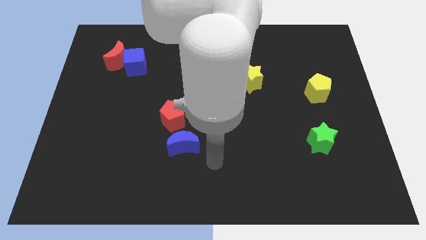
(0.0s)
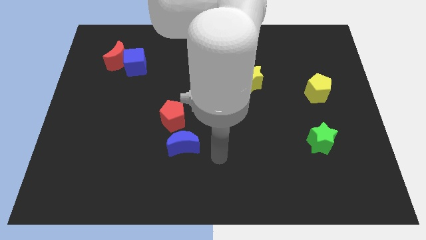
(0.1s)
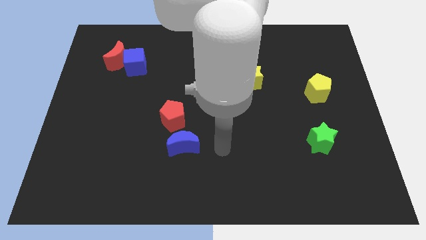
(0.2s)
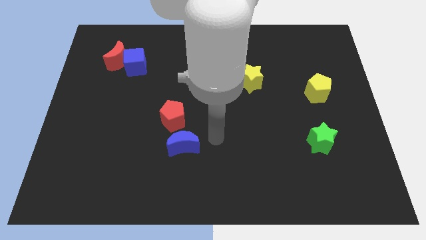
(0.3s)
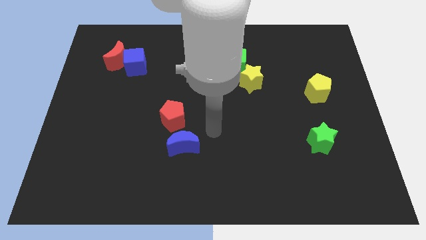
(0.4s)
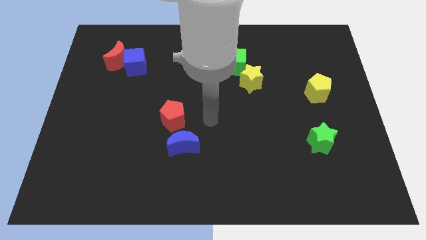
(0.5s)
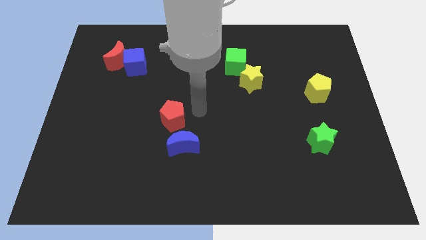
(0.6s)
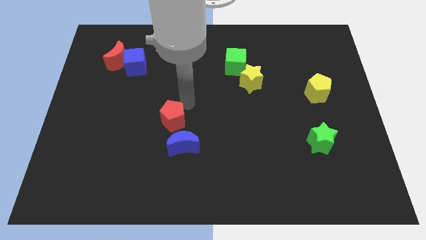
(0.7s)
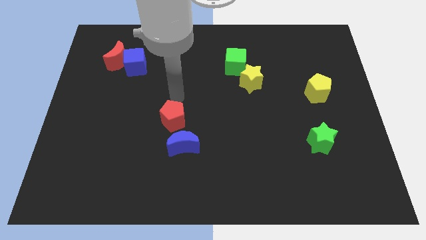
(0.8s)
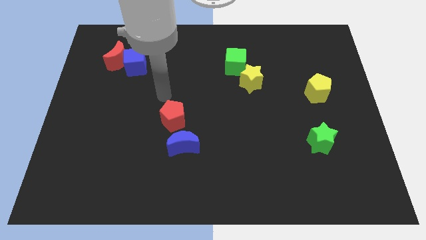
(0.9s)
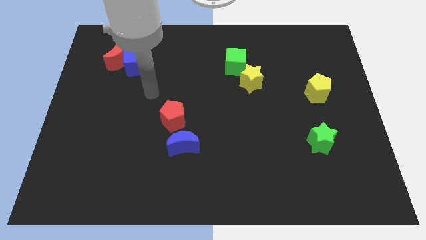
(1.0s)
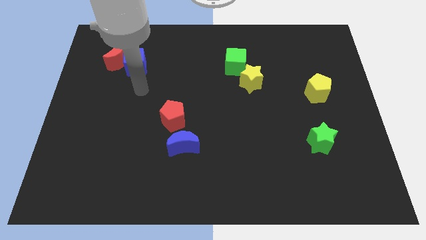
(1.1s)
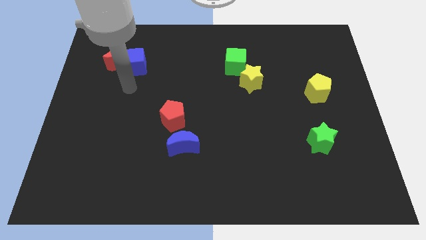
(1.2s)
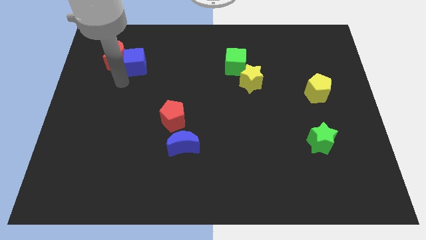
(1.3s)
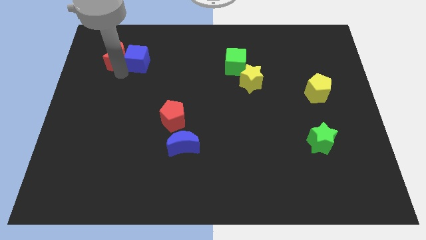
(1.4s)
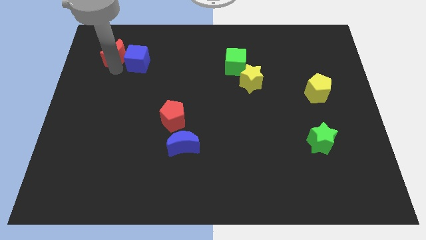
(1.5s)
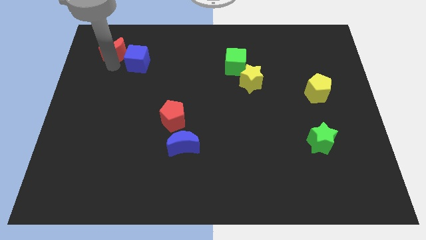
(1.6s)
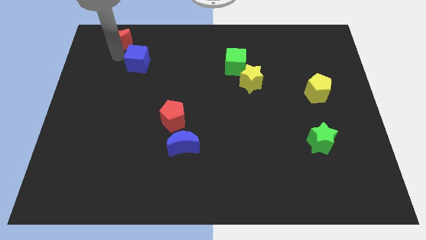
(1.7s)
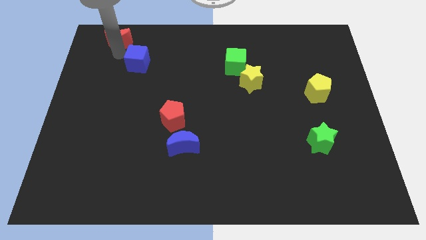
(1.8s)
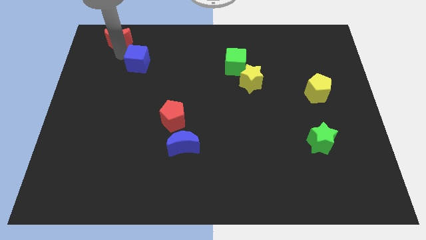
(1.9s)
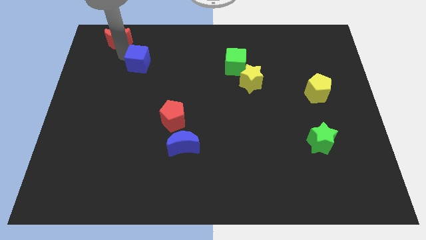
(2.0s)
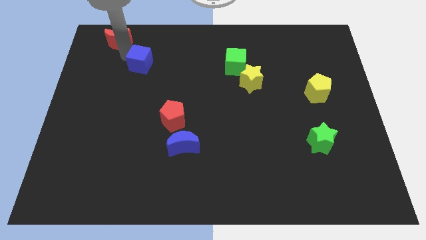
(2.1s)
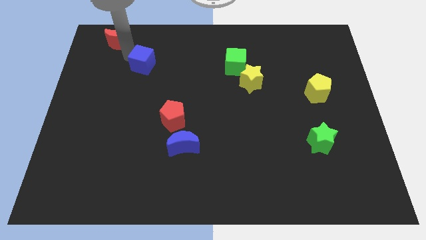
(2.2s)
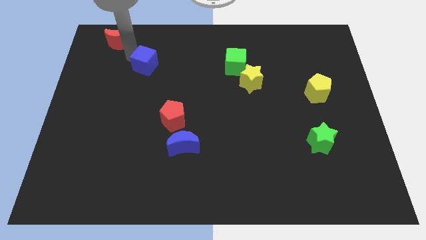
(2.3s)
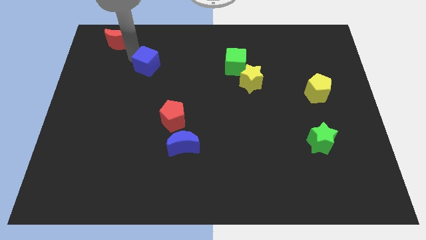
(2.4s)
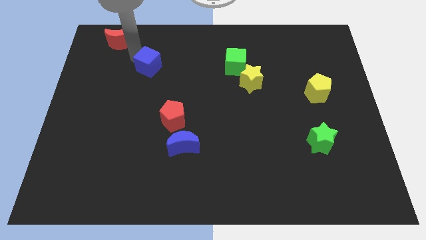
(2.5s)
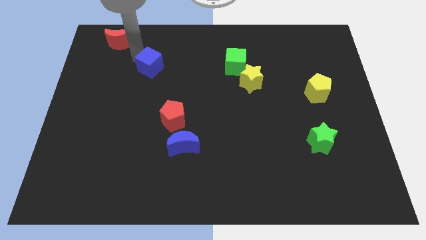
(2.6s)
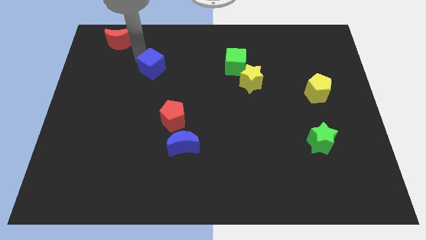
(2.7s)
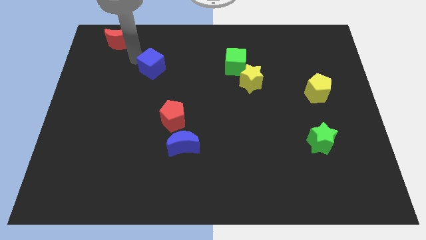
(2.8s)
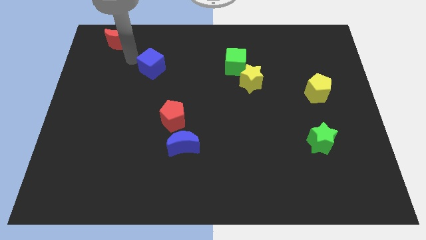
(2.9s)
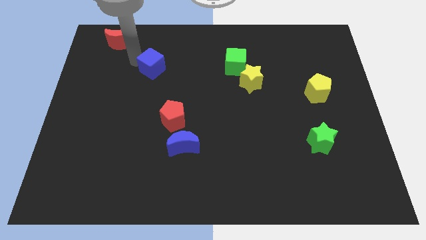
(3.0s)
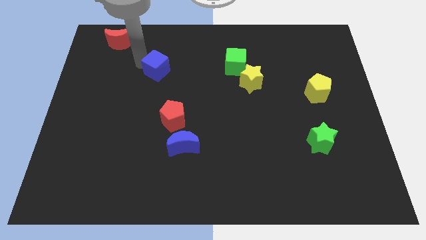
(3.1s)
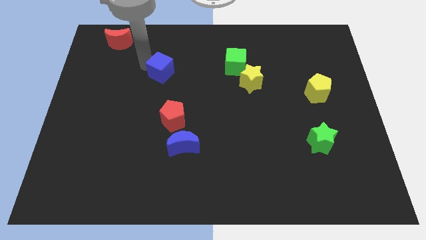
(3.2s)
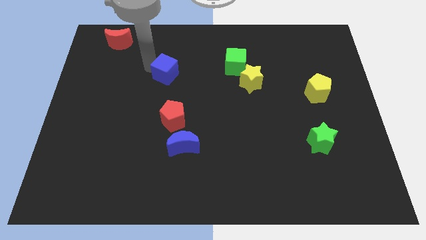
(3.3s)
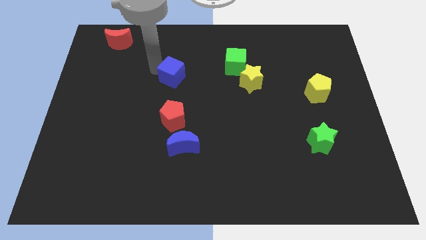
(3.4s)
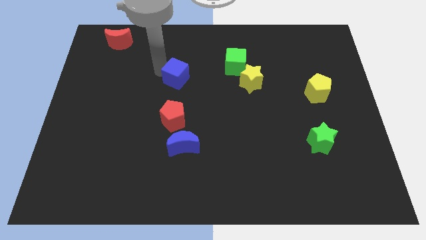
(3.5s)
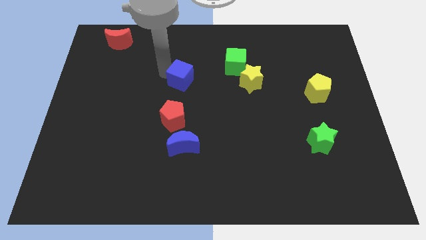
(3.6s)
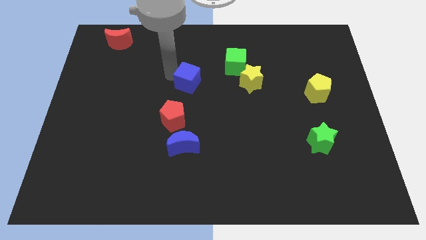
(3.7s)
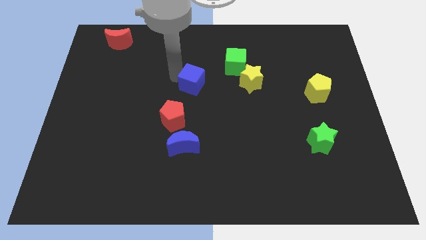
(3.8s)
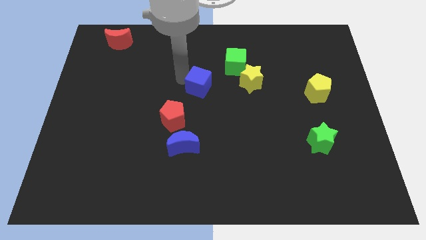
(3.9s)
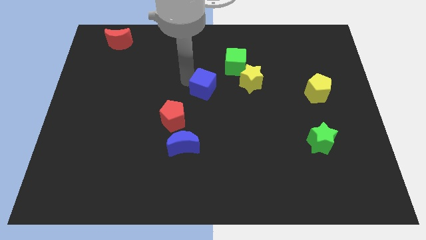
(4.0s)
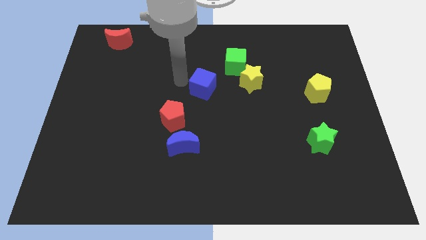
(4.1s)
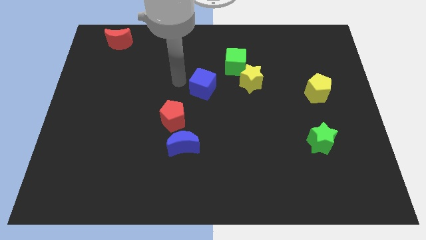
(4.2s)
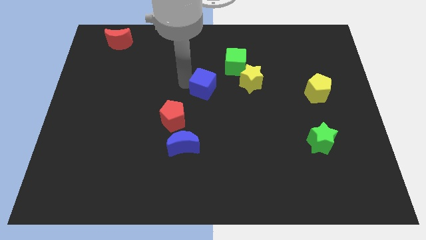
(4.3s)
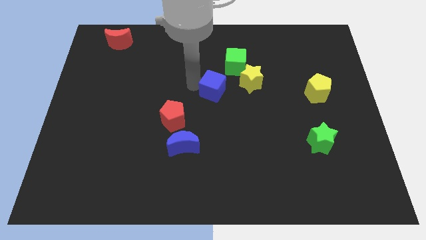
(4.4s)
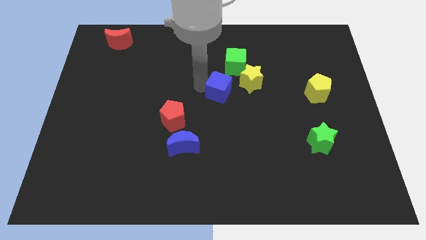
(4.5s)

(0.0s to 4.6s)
move the blue cube to the bottom side of the green cube

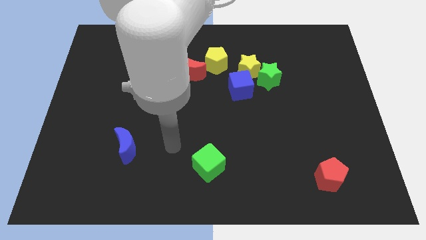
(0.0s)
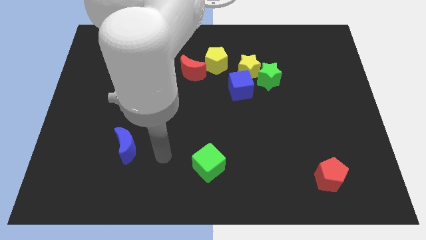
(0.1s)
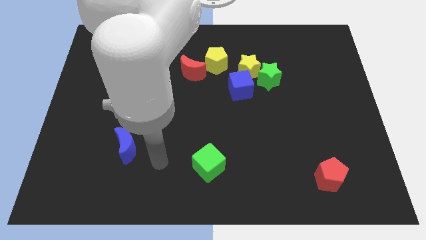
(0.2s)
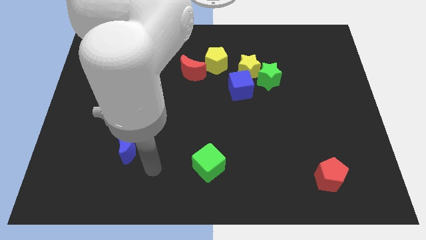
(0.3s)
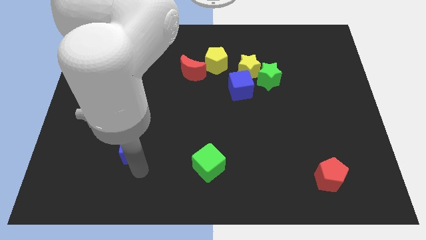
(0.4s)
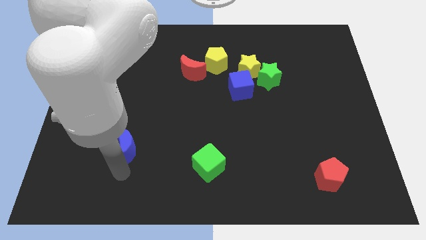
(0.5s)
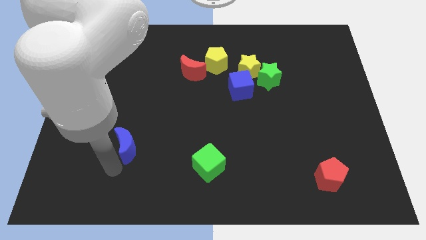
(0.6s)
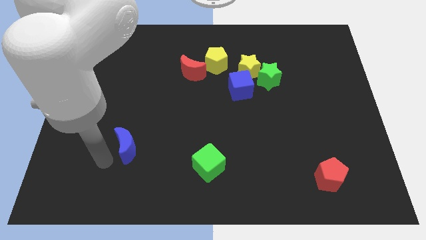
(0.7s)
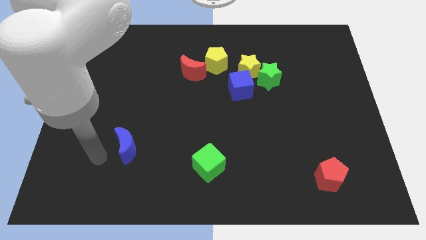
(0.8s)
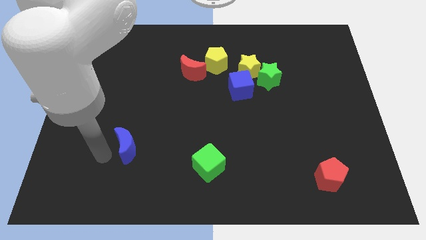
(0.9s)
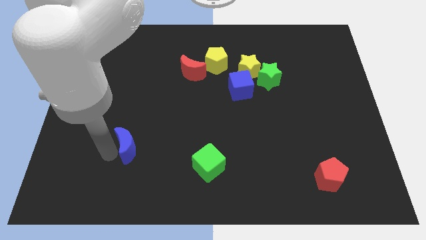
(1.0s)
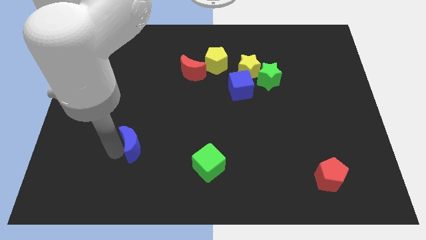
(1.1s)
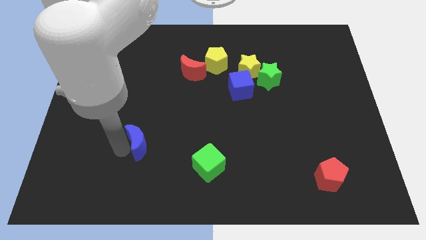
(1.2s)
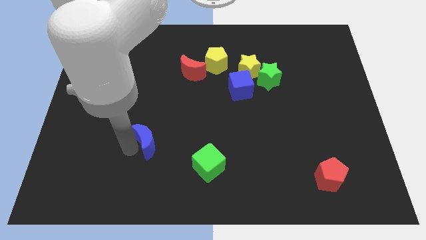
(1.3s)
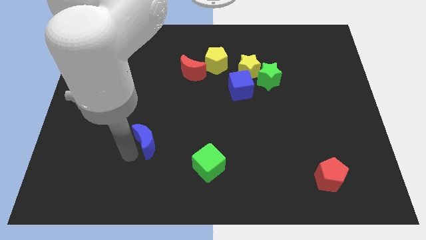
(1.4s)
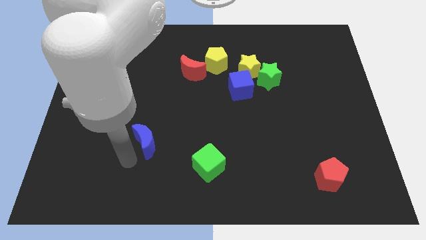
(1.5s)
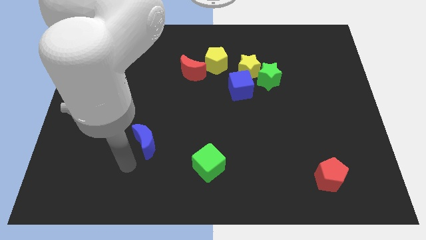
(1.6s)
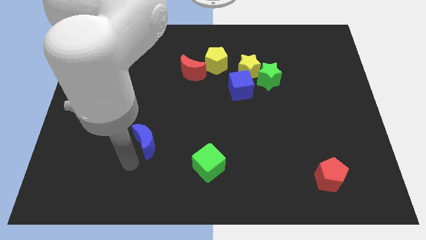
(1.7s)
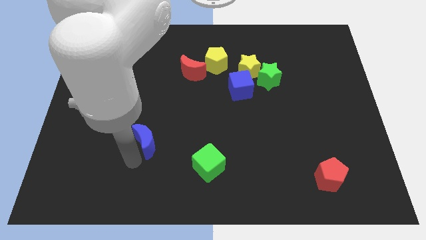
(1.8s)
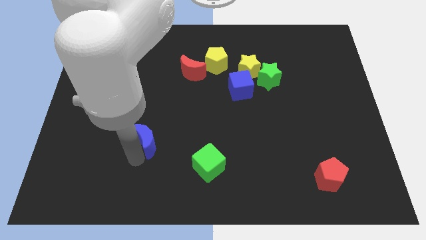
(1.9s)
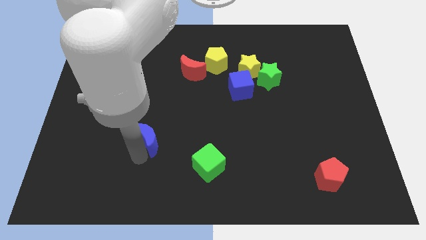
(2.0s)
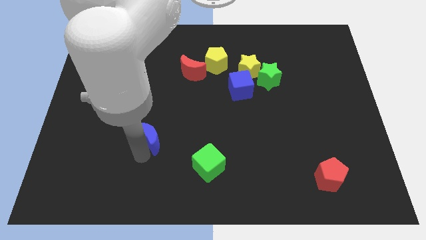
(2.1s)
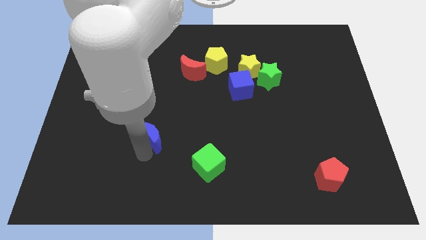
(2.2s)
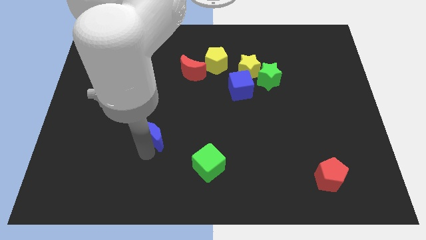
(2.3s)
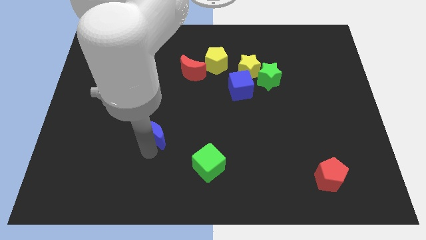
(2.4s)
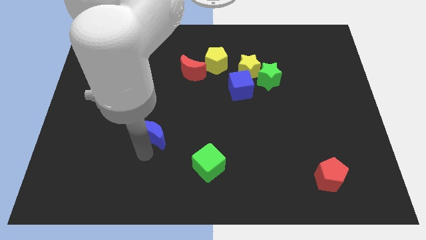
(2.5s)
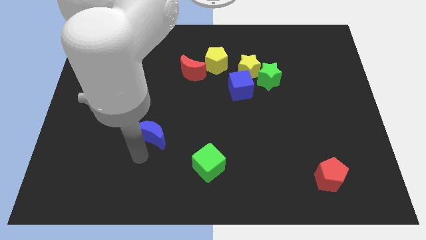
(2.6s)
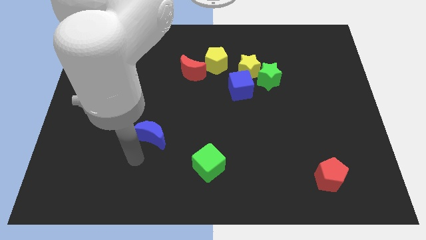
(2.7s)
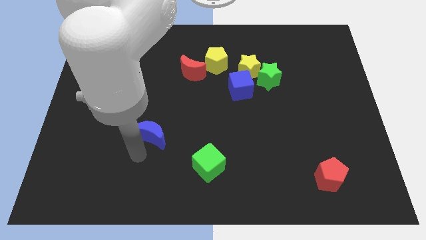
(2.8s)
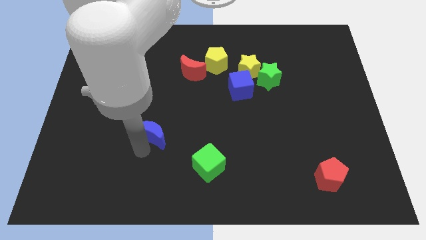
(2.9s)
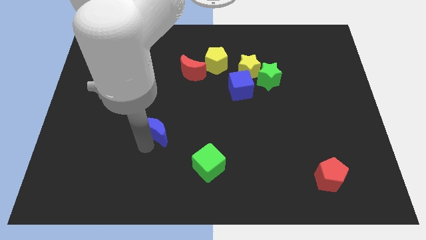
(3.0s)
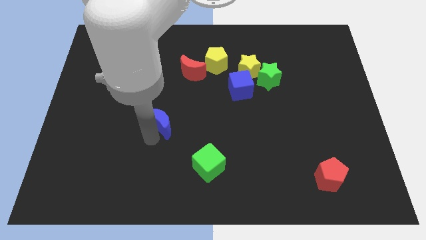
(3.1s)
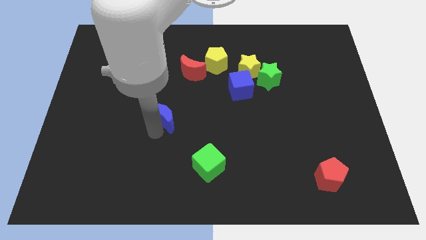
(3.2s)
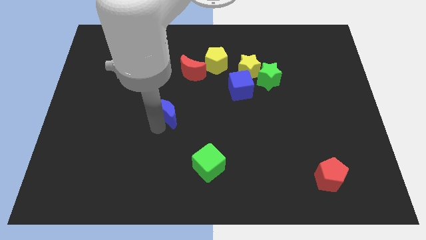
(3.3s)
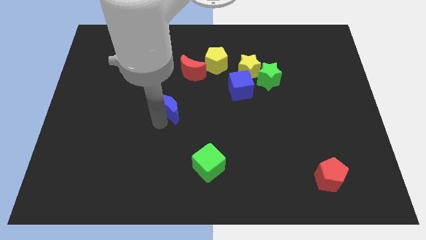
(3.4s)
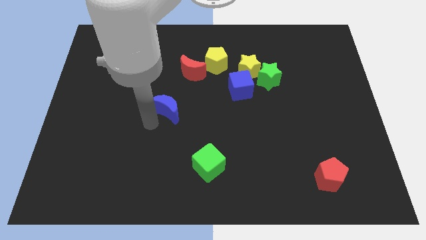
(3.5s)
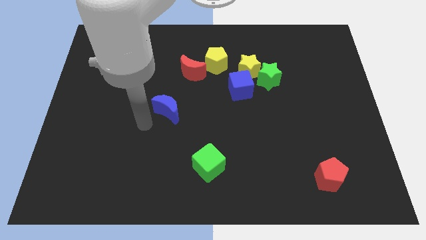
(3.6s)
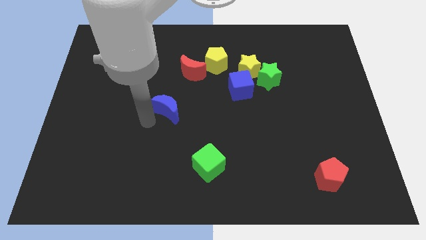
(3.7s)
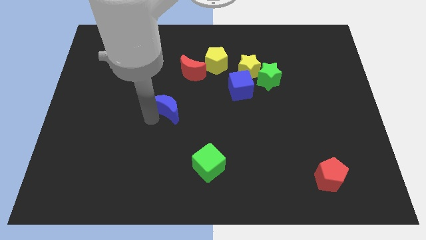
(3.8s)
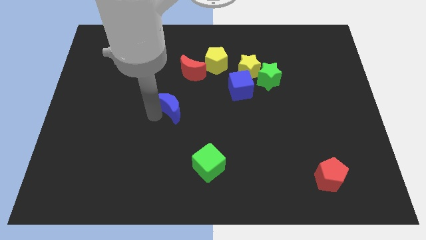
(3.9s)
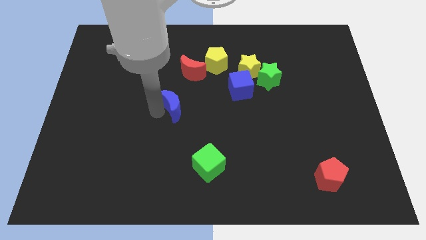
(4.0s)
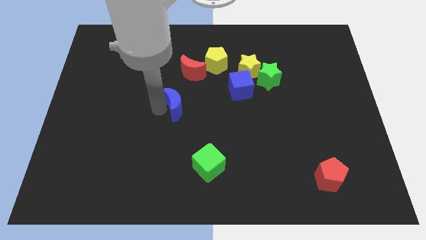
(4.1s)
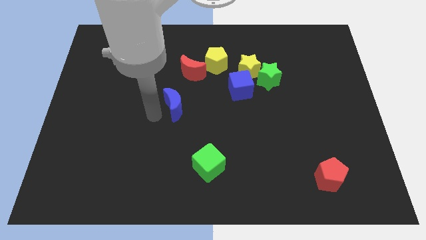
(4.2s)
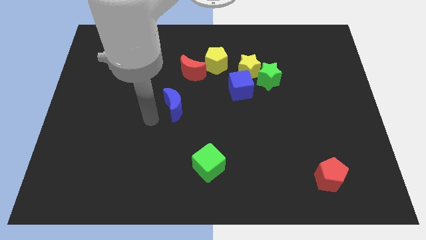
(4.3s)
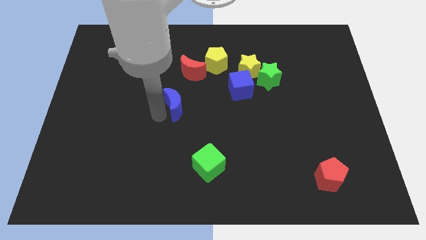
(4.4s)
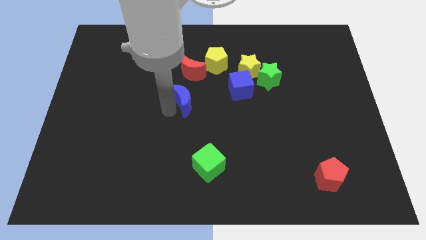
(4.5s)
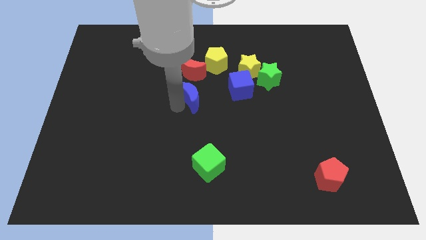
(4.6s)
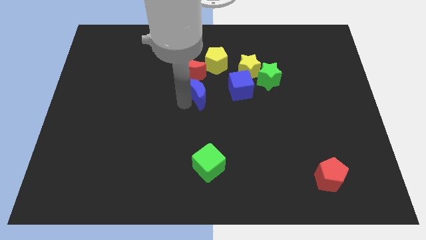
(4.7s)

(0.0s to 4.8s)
slide the blue moon to the bottom right side of the red moon
